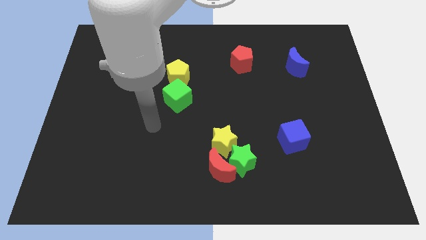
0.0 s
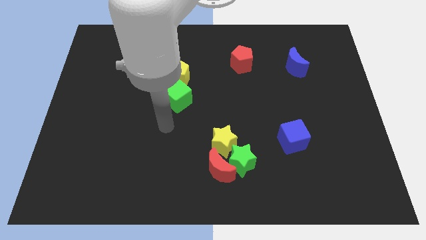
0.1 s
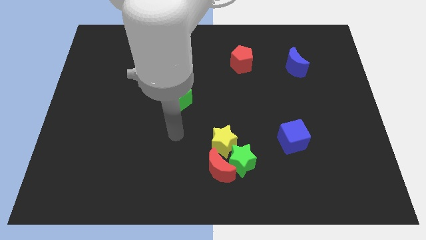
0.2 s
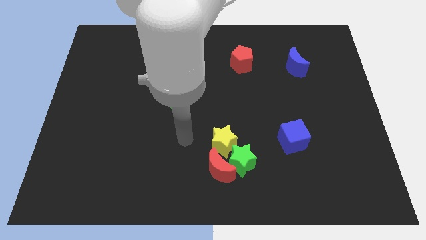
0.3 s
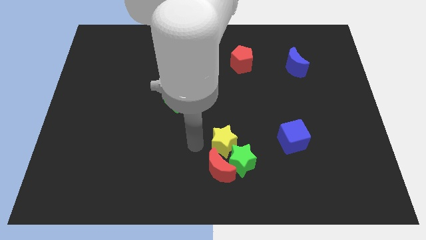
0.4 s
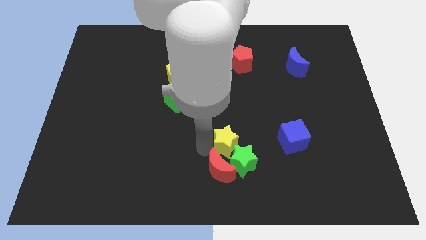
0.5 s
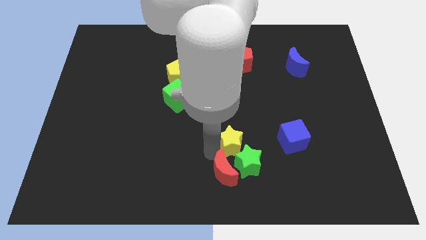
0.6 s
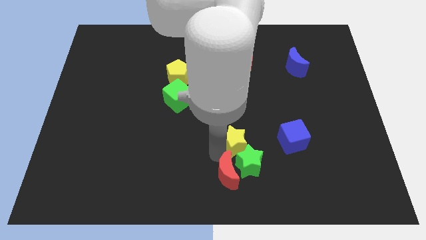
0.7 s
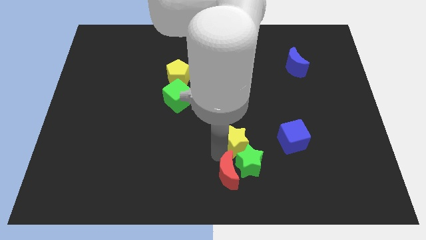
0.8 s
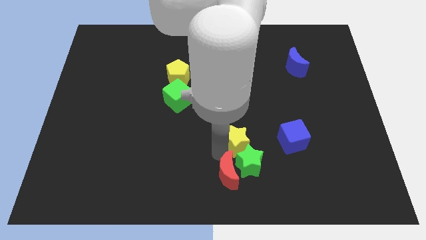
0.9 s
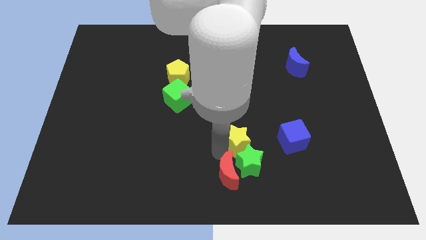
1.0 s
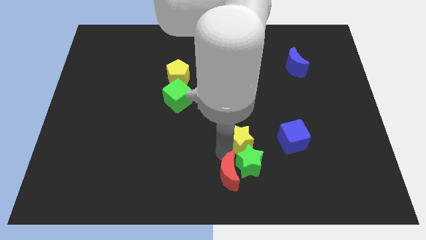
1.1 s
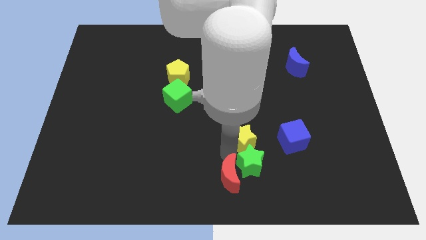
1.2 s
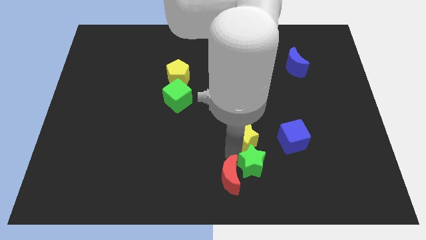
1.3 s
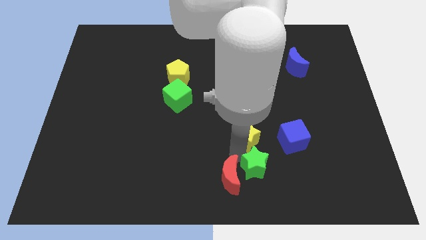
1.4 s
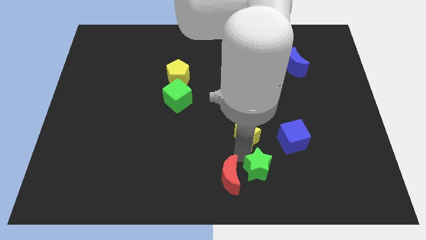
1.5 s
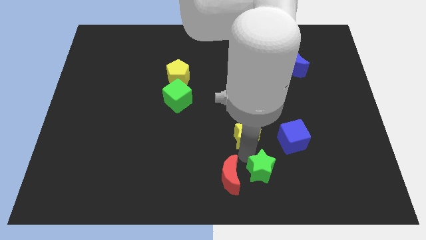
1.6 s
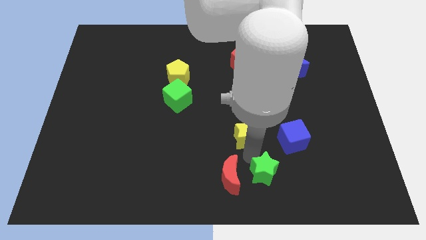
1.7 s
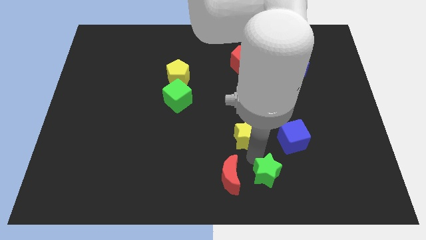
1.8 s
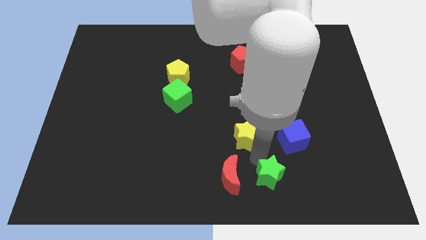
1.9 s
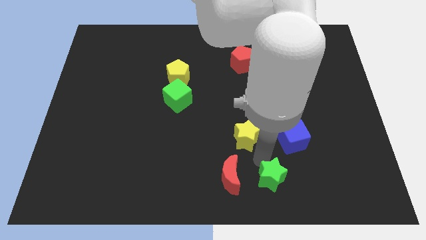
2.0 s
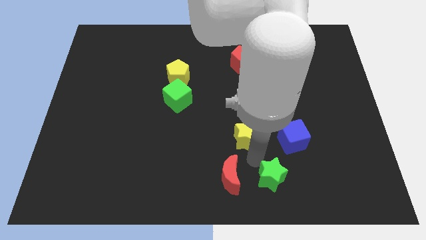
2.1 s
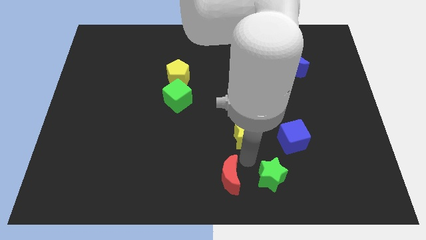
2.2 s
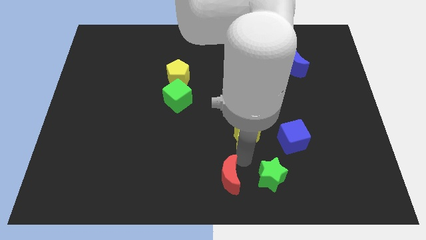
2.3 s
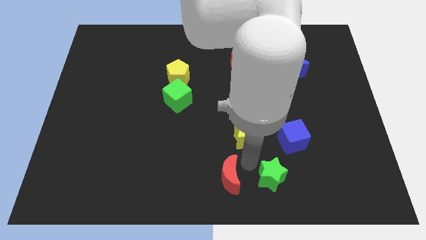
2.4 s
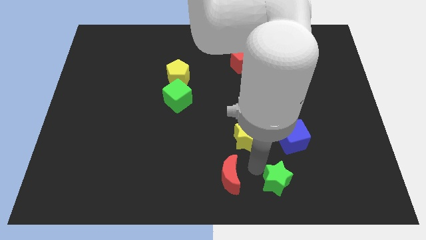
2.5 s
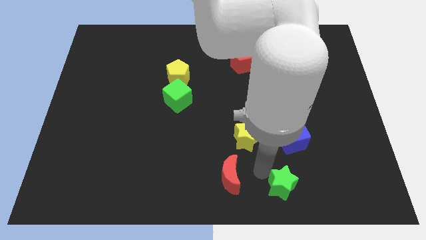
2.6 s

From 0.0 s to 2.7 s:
pull the green star apart from the red moon and yellow star

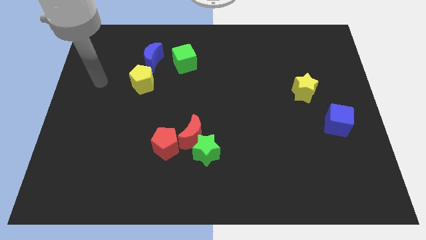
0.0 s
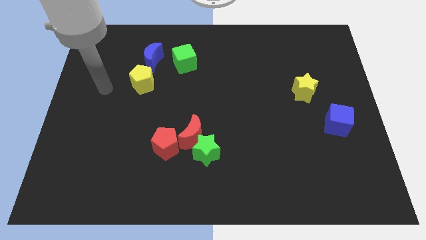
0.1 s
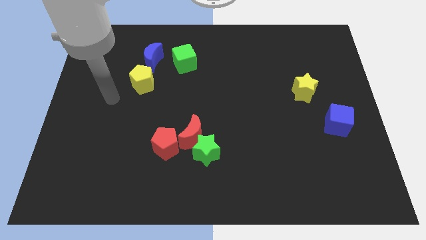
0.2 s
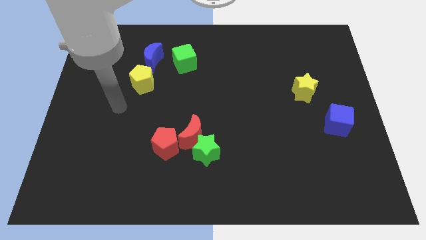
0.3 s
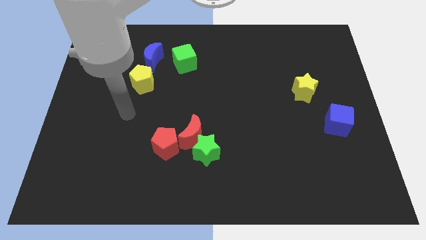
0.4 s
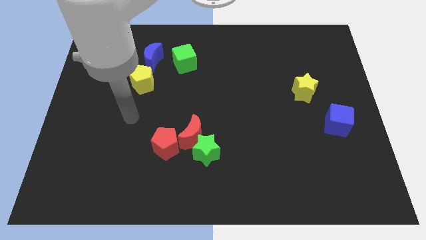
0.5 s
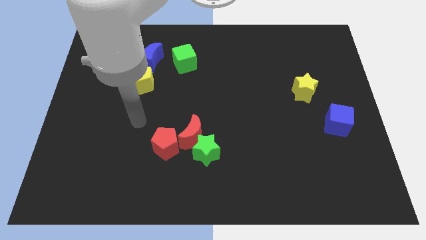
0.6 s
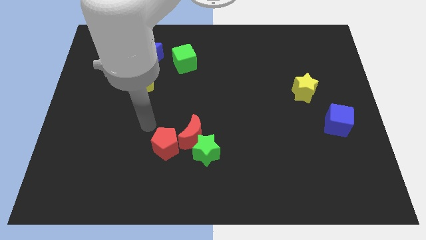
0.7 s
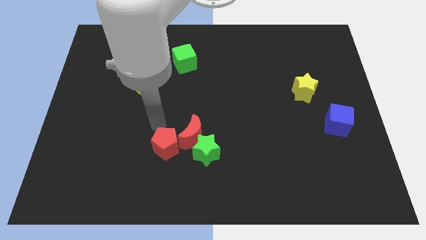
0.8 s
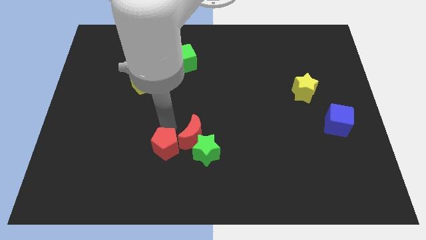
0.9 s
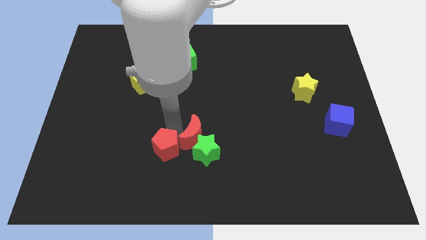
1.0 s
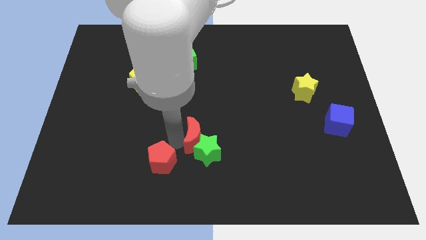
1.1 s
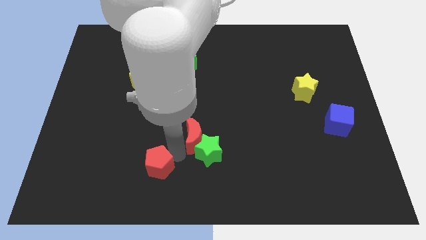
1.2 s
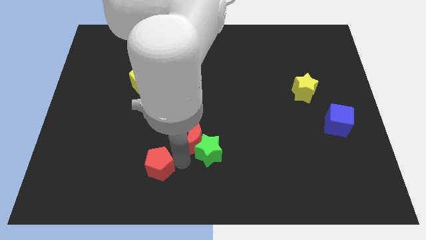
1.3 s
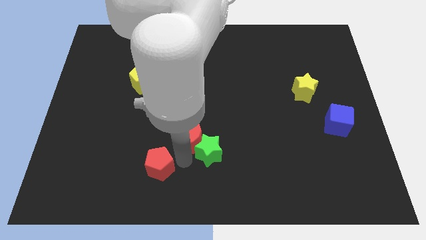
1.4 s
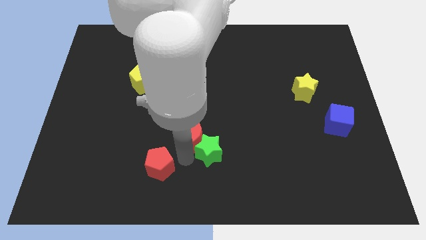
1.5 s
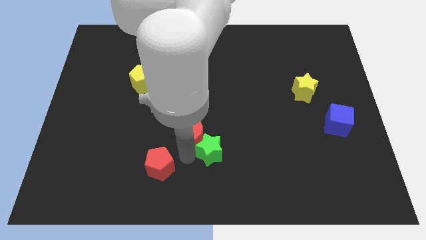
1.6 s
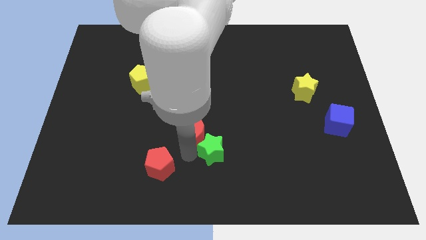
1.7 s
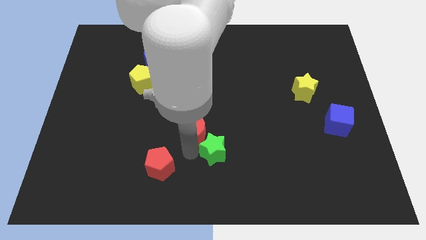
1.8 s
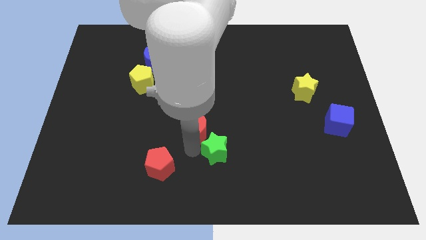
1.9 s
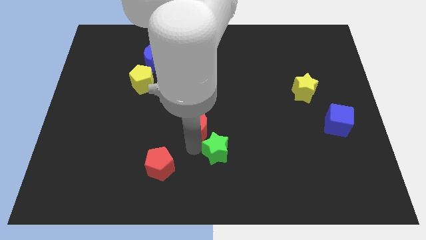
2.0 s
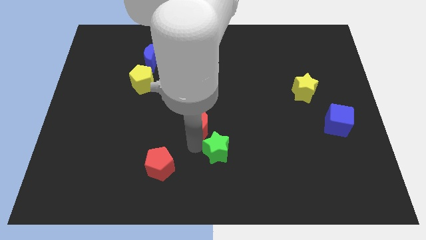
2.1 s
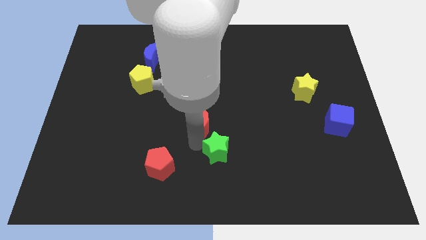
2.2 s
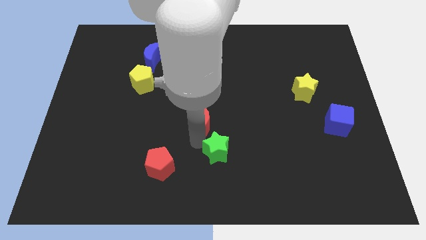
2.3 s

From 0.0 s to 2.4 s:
move the red moon away from the green star and red pentagon

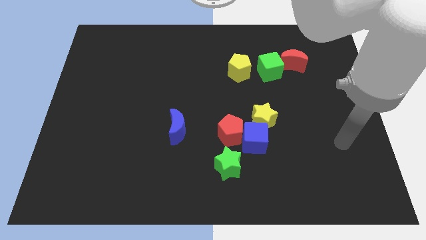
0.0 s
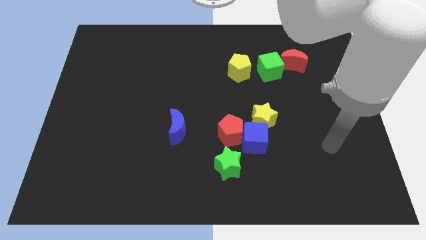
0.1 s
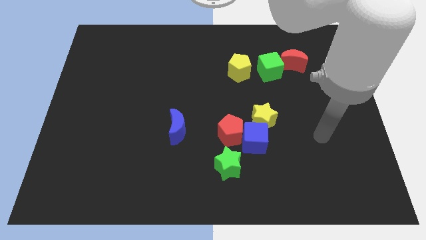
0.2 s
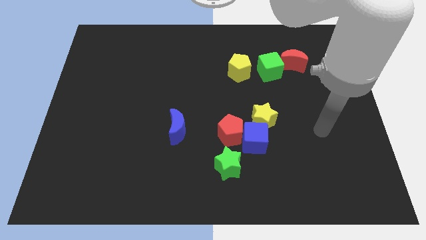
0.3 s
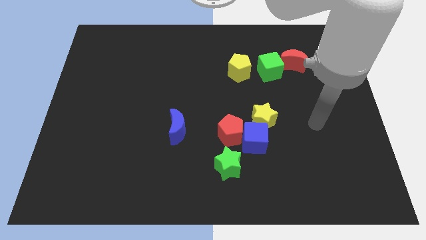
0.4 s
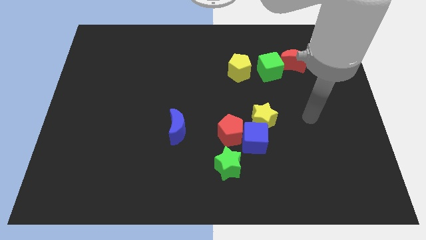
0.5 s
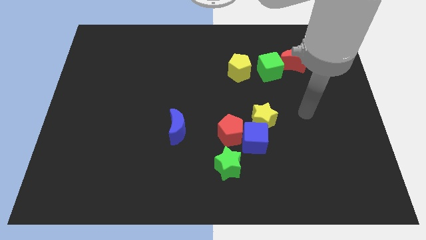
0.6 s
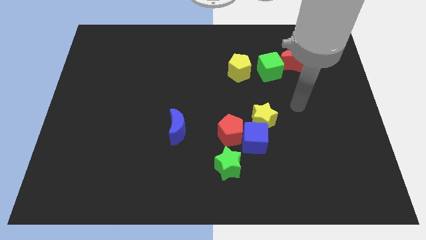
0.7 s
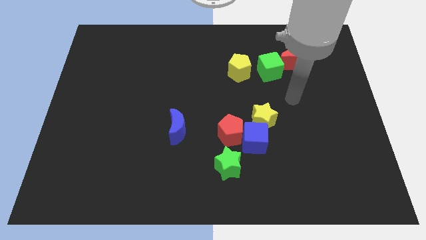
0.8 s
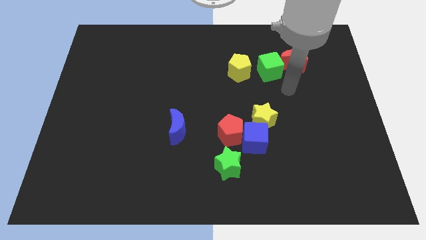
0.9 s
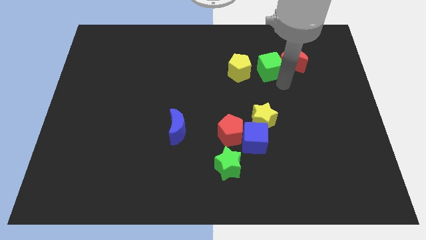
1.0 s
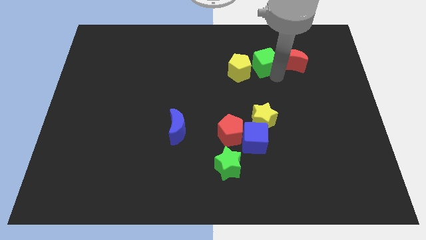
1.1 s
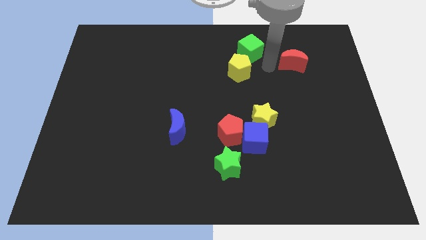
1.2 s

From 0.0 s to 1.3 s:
separate the red moon from the green cube

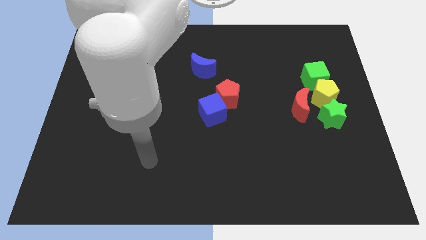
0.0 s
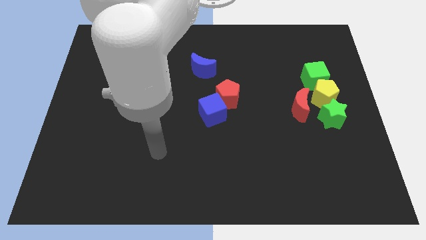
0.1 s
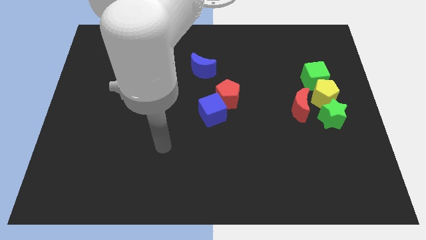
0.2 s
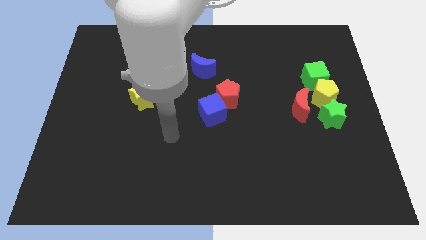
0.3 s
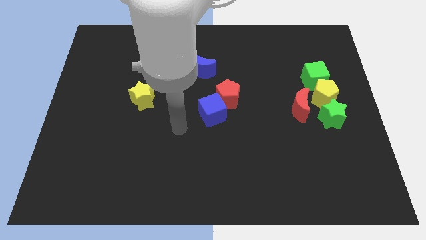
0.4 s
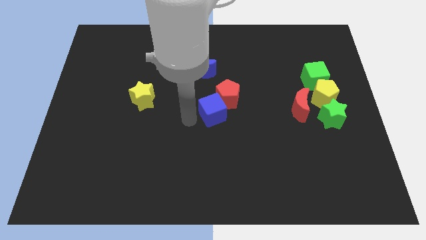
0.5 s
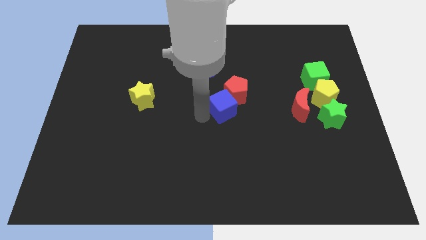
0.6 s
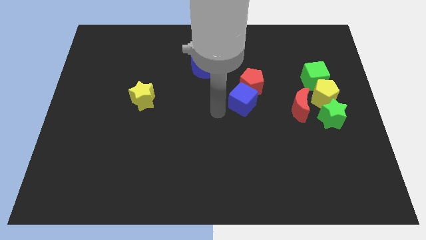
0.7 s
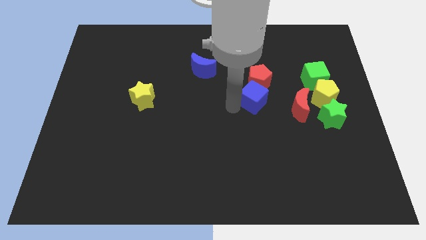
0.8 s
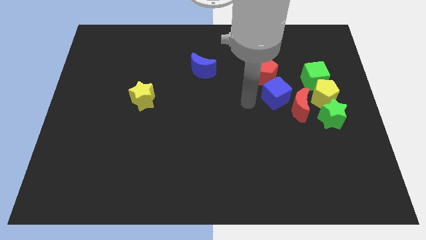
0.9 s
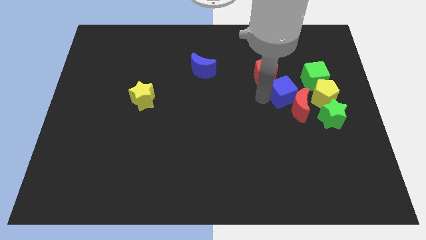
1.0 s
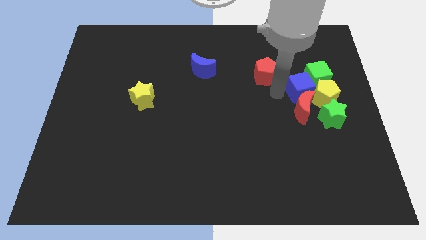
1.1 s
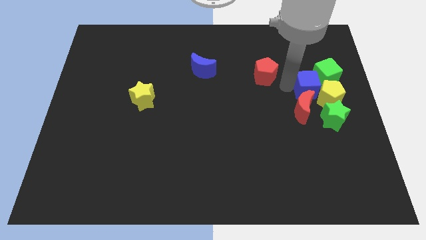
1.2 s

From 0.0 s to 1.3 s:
move the red pentagon away from the blue cube

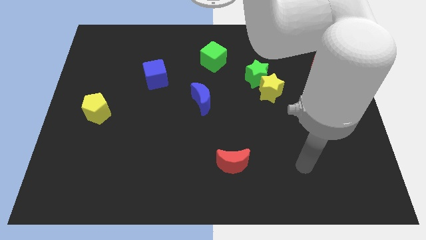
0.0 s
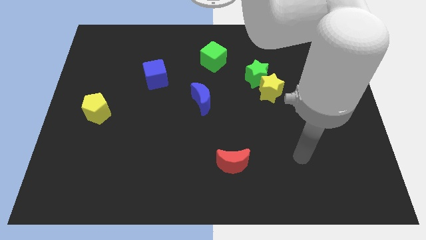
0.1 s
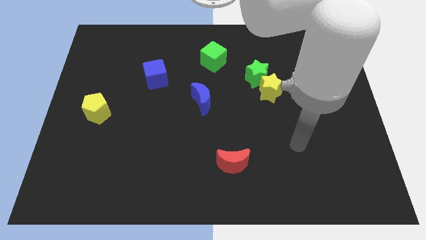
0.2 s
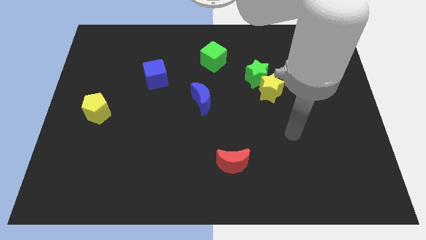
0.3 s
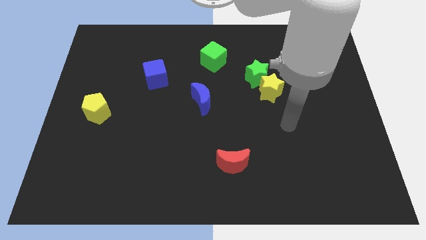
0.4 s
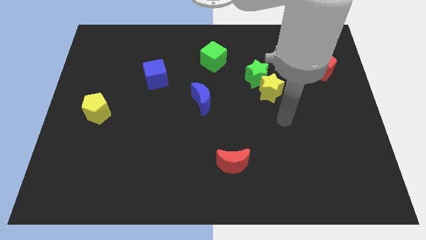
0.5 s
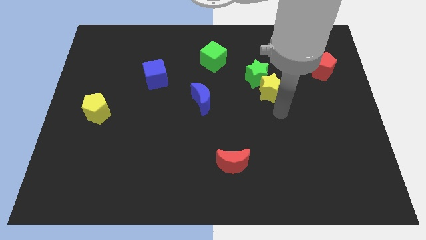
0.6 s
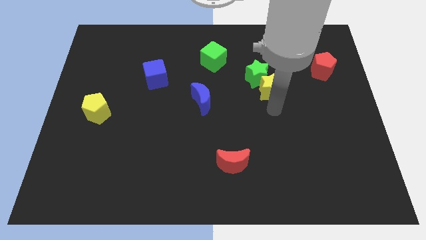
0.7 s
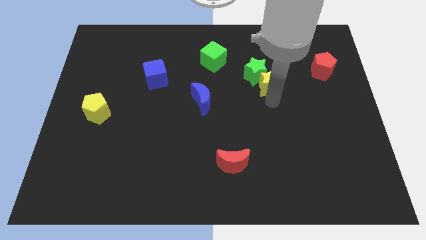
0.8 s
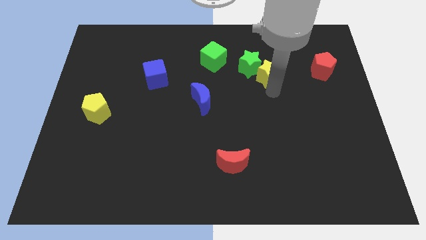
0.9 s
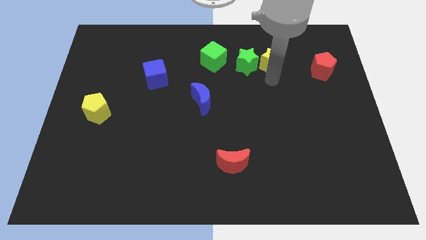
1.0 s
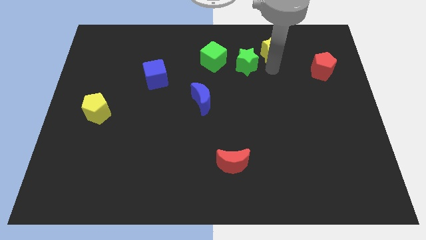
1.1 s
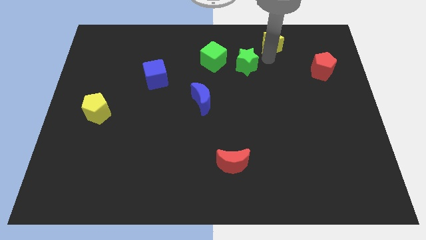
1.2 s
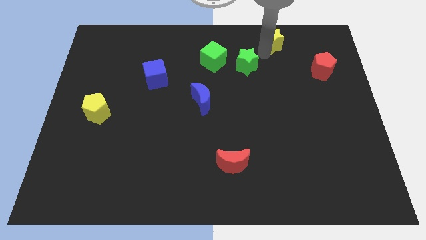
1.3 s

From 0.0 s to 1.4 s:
pull the green star apart from the yellow star

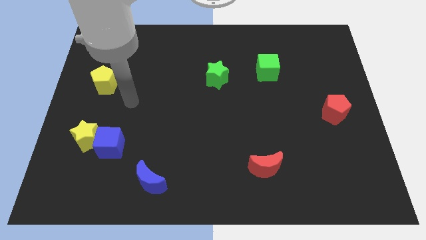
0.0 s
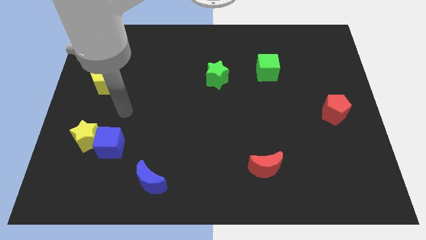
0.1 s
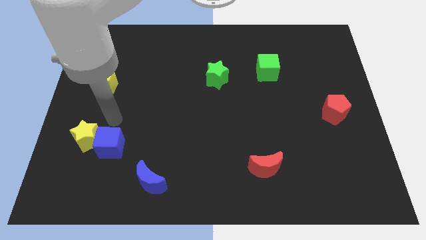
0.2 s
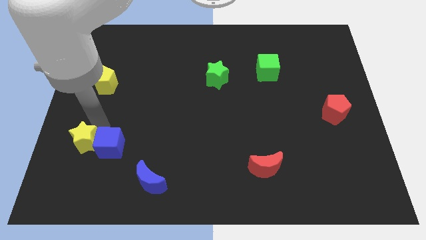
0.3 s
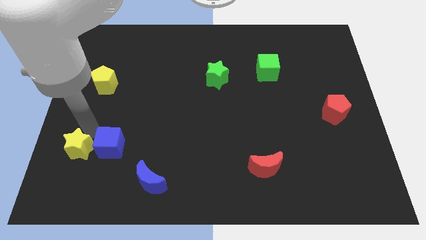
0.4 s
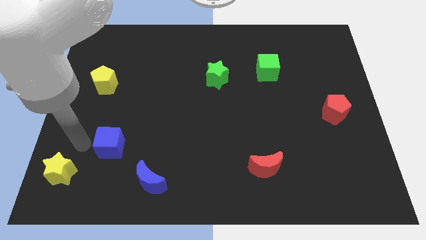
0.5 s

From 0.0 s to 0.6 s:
move the blue cube away from the yellow star
